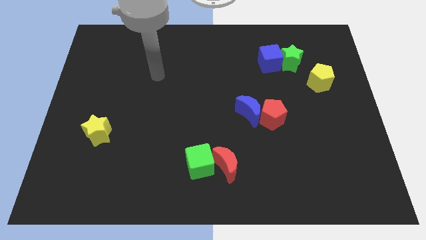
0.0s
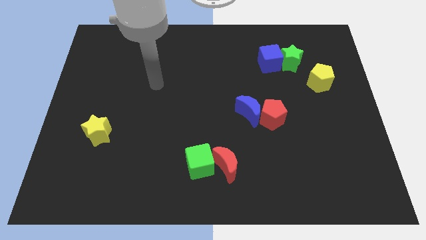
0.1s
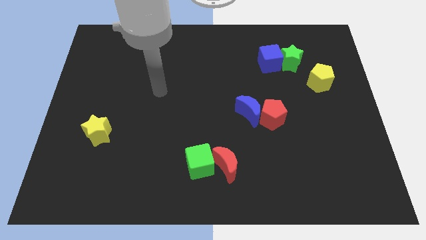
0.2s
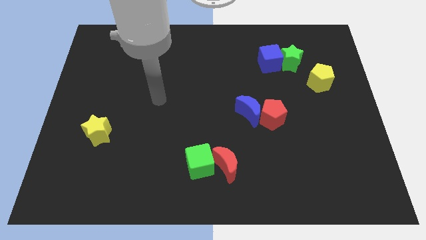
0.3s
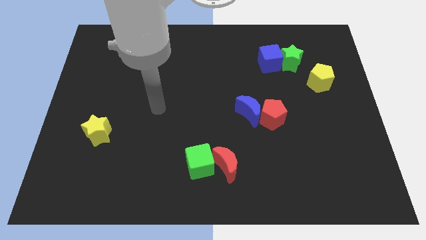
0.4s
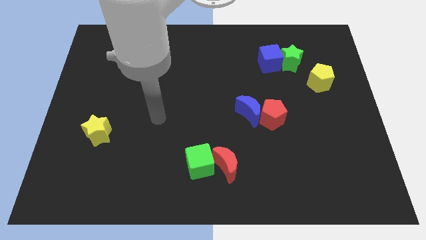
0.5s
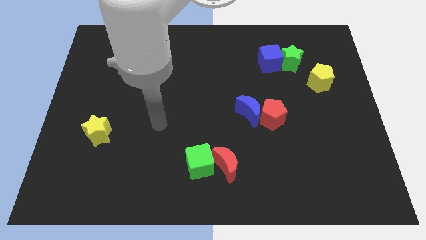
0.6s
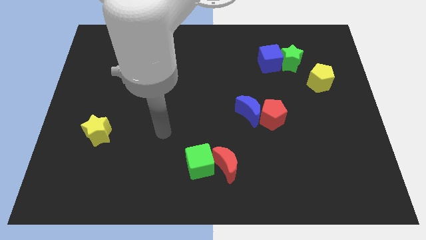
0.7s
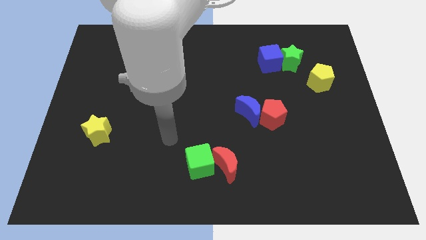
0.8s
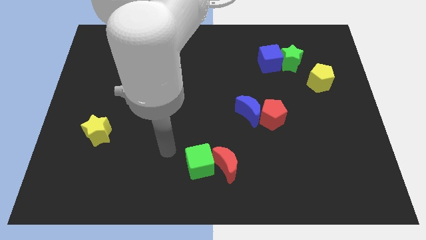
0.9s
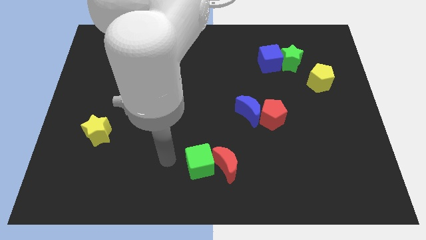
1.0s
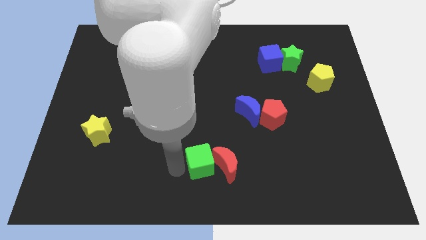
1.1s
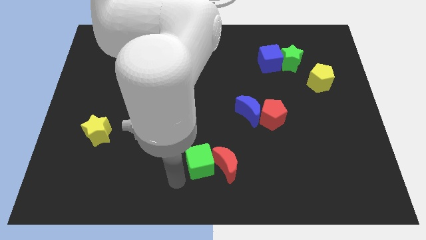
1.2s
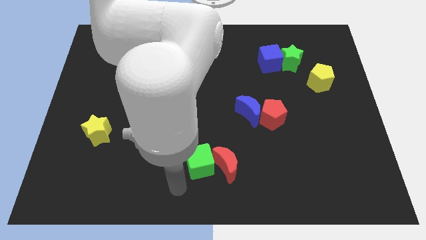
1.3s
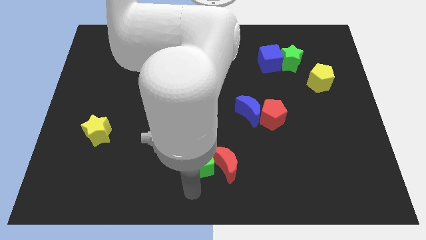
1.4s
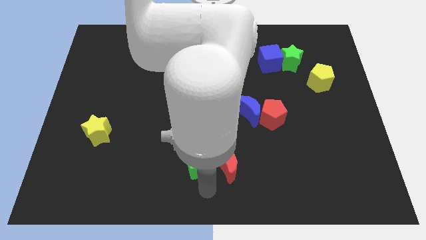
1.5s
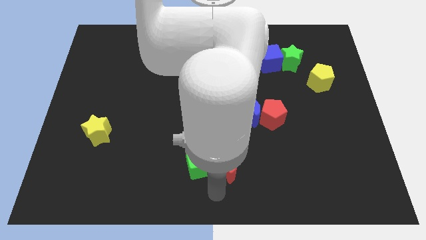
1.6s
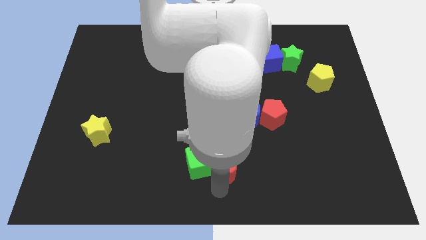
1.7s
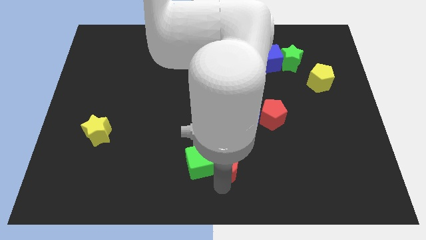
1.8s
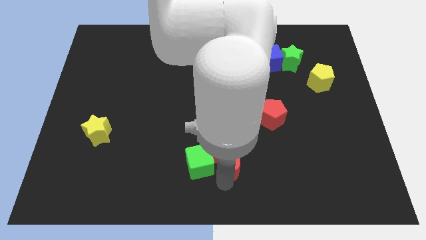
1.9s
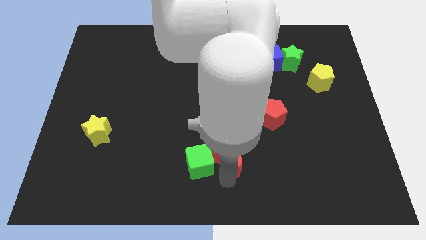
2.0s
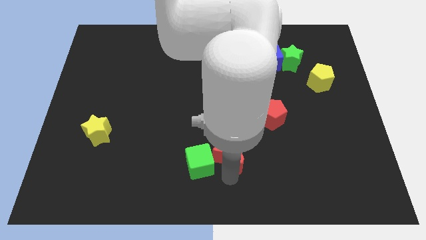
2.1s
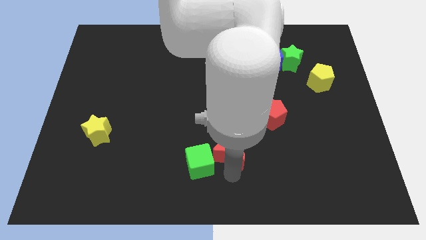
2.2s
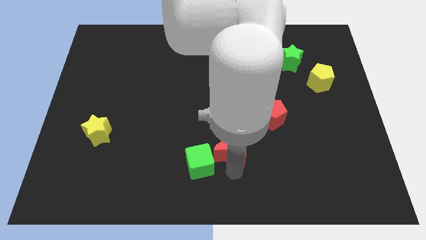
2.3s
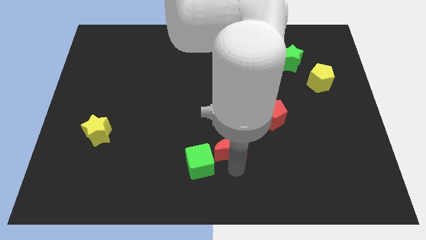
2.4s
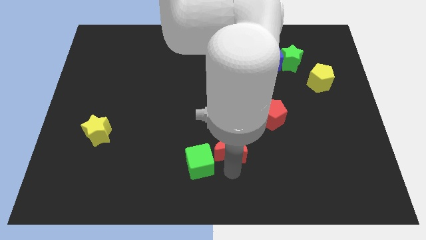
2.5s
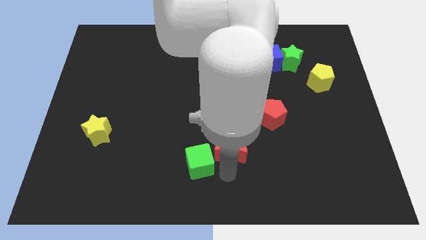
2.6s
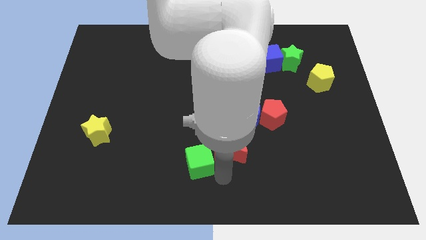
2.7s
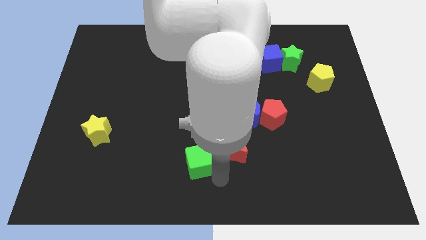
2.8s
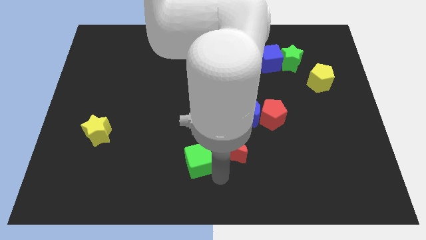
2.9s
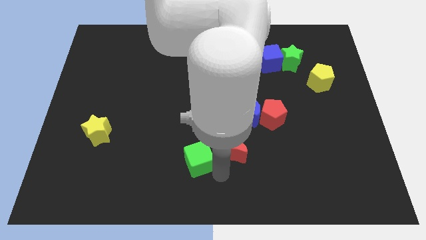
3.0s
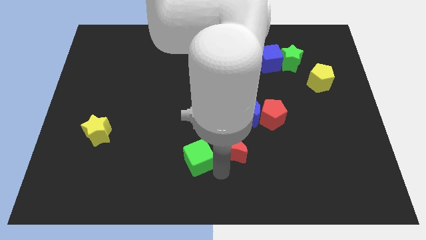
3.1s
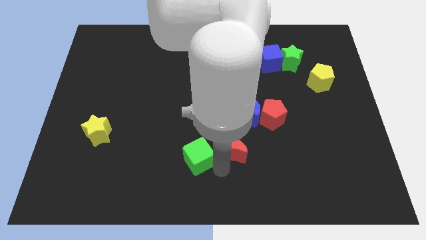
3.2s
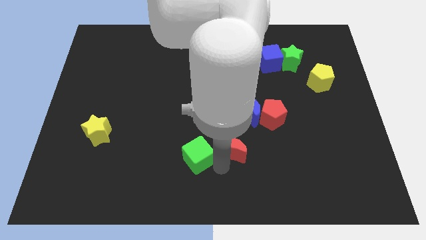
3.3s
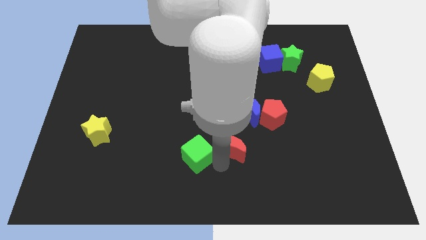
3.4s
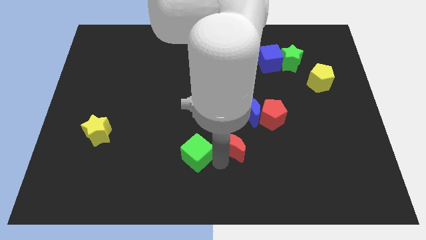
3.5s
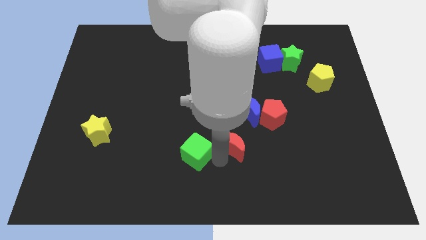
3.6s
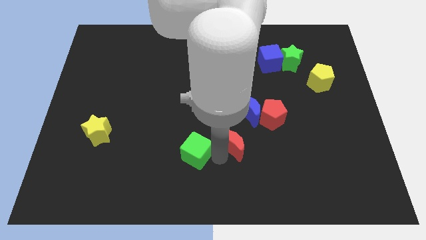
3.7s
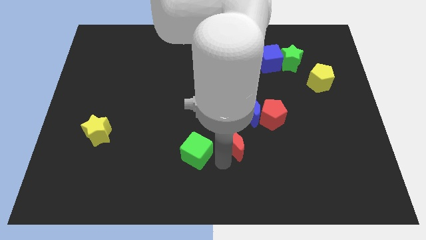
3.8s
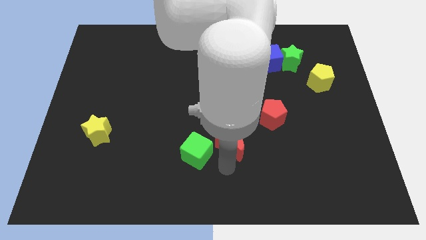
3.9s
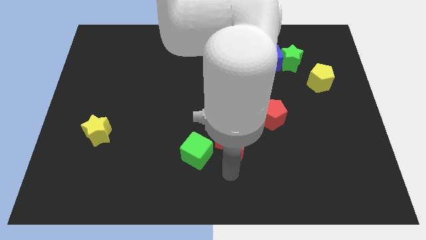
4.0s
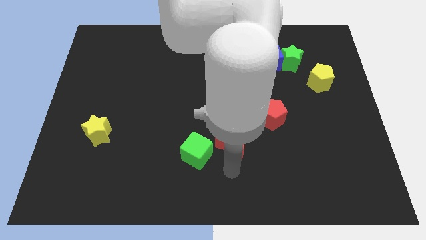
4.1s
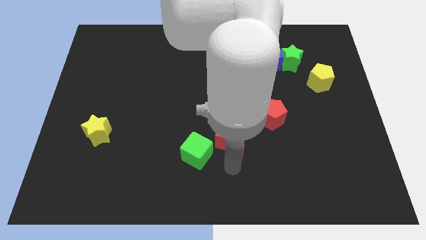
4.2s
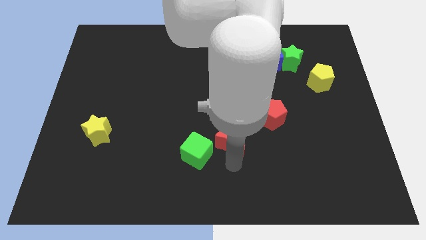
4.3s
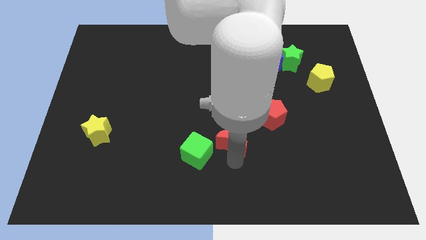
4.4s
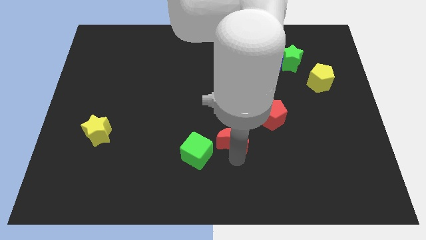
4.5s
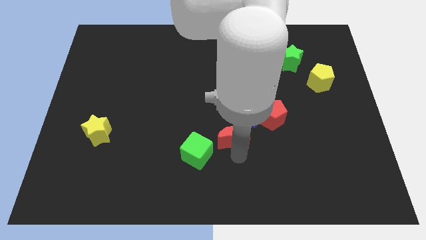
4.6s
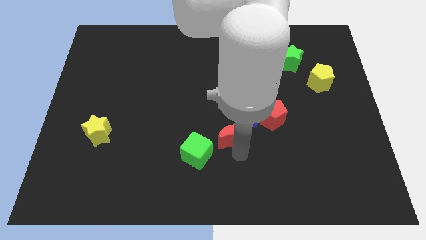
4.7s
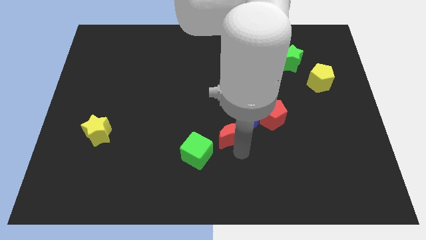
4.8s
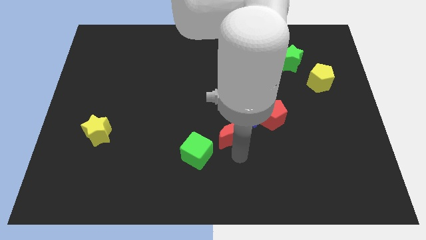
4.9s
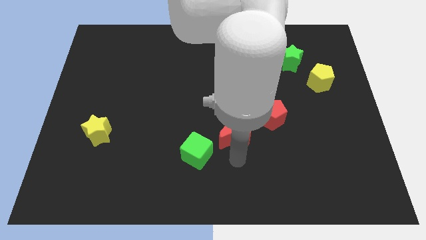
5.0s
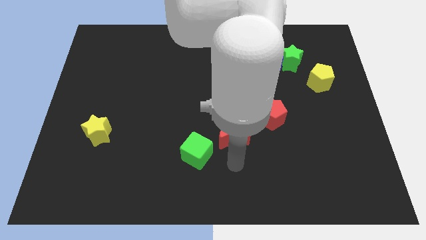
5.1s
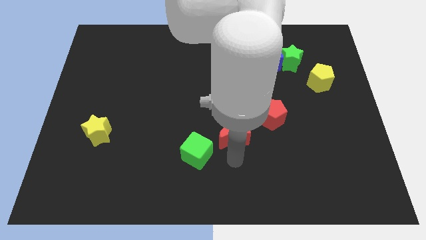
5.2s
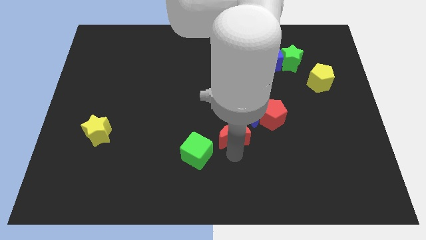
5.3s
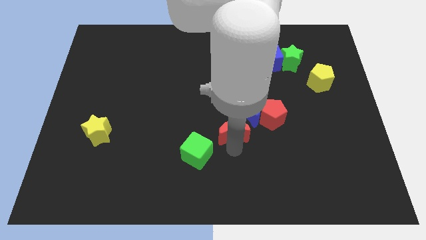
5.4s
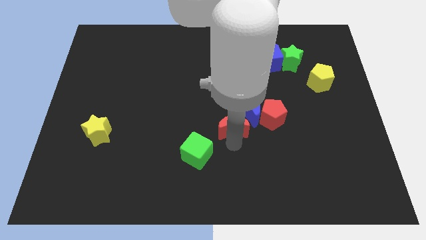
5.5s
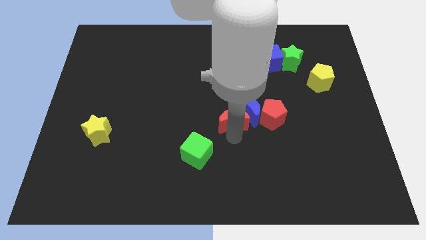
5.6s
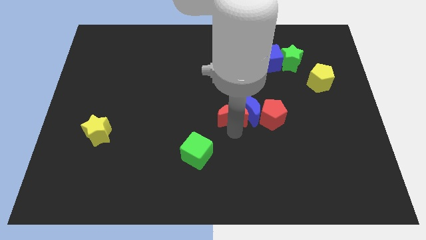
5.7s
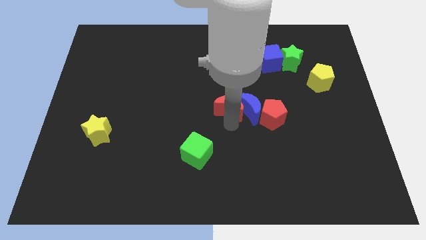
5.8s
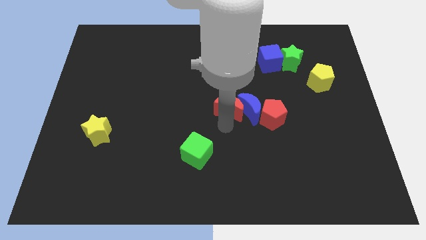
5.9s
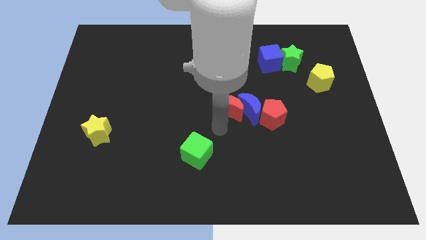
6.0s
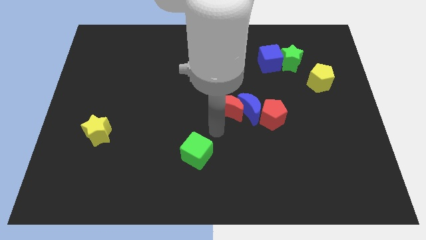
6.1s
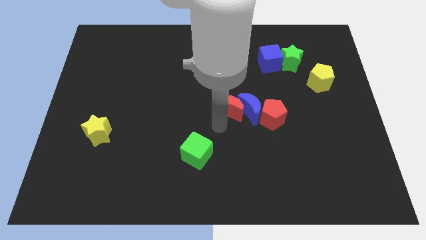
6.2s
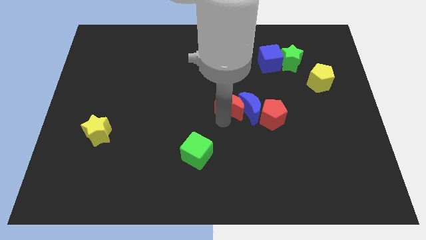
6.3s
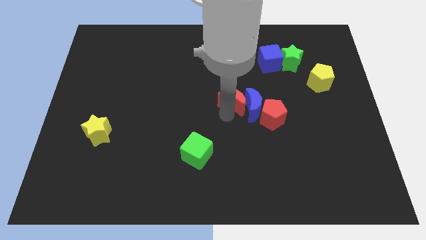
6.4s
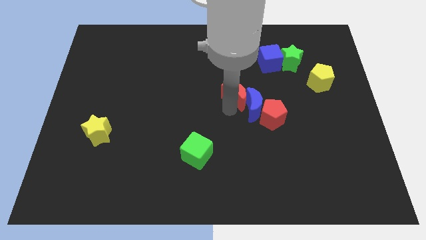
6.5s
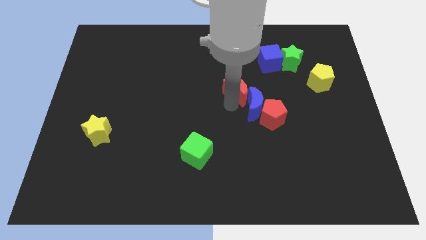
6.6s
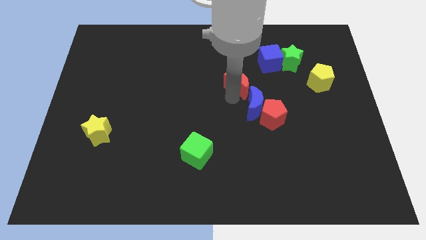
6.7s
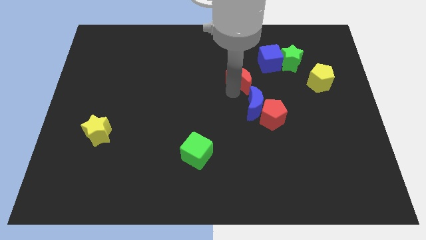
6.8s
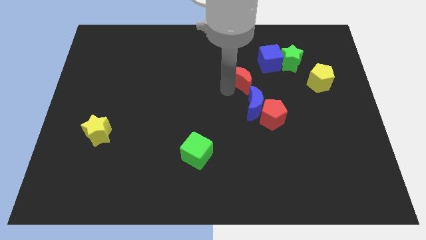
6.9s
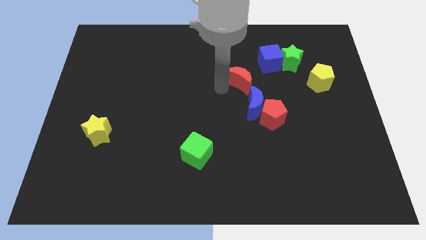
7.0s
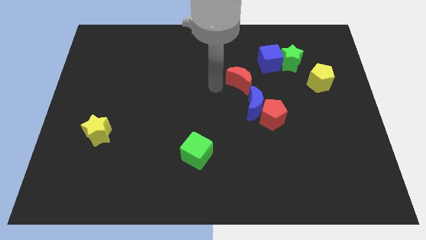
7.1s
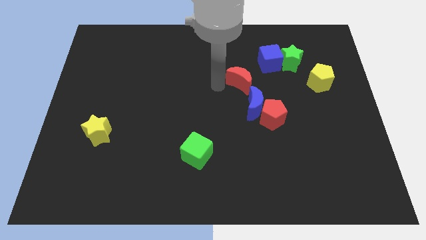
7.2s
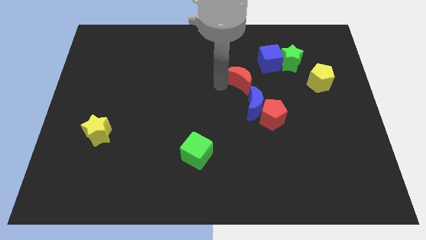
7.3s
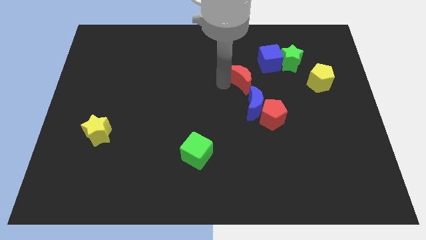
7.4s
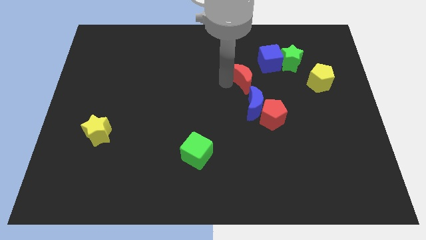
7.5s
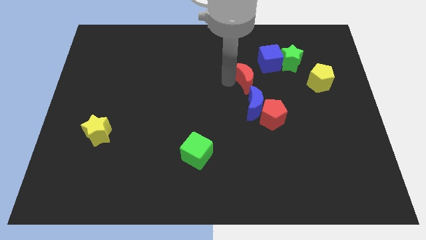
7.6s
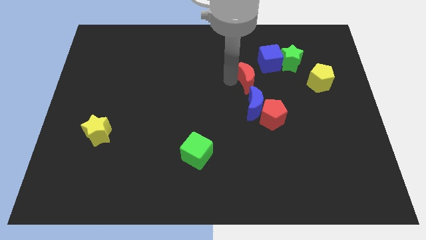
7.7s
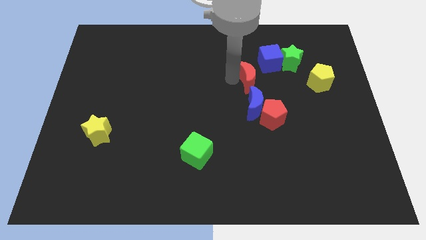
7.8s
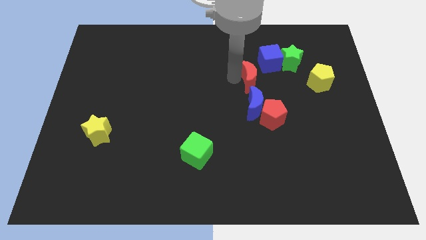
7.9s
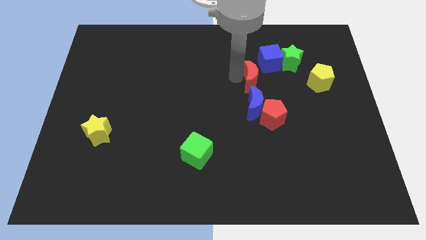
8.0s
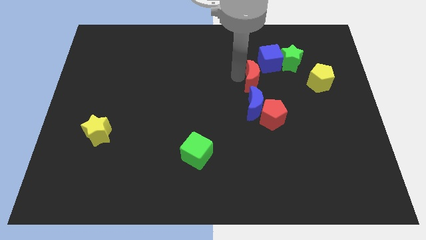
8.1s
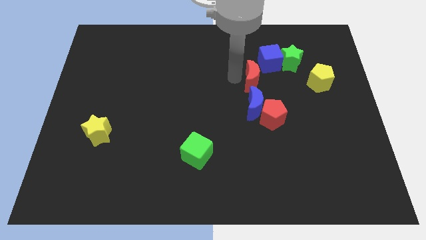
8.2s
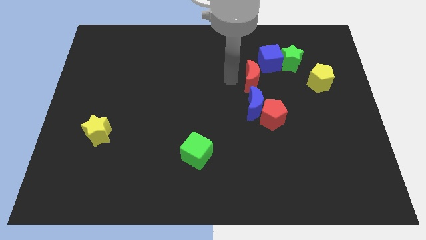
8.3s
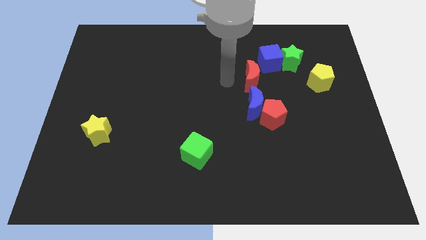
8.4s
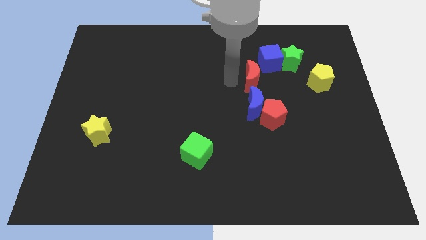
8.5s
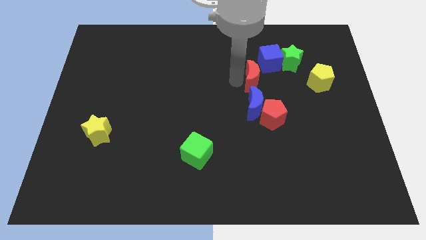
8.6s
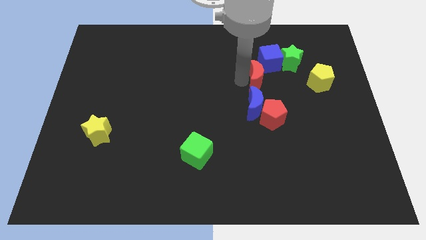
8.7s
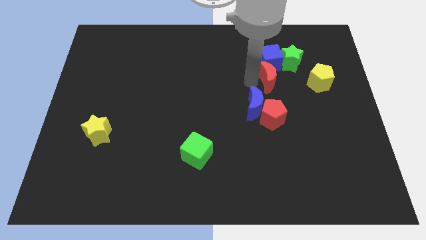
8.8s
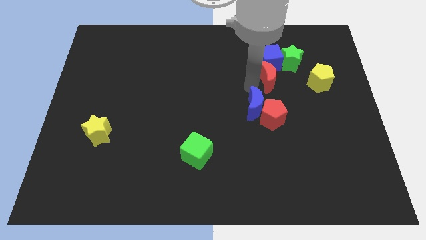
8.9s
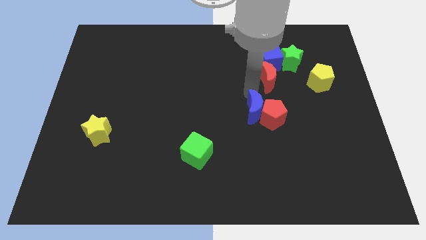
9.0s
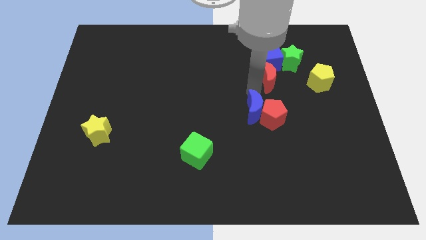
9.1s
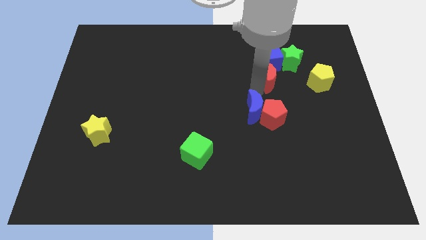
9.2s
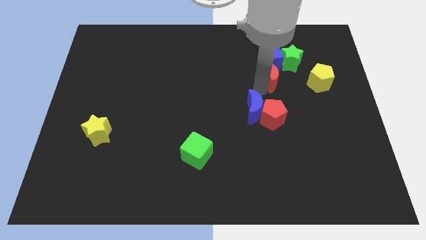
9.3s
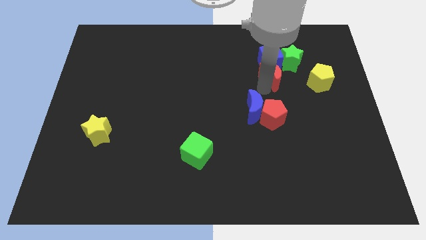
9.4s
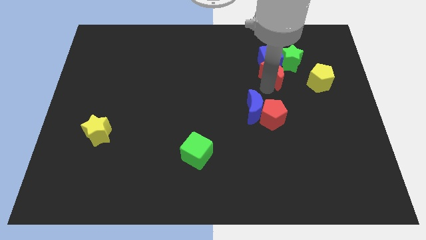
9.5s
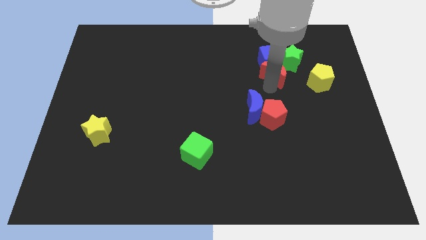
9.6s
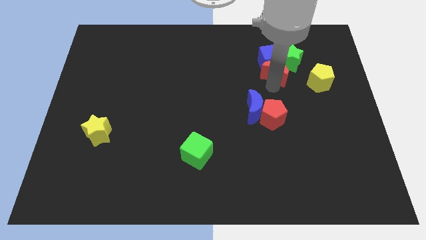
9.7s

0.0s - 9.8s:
move the red moon to the green star
